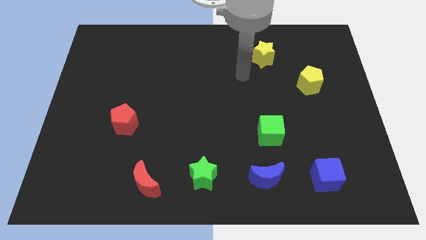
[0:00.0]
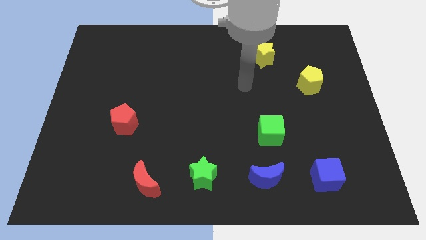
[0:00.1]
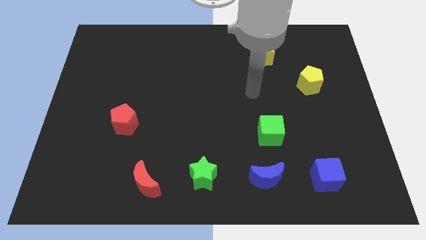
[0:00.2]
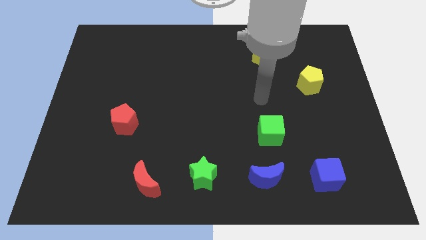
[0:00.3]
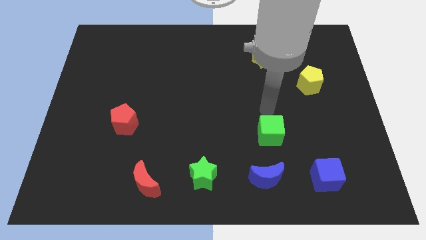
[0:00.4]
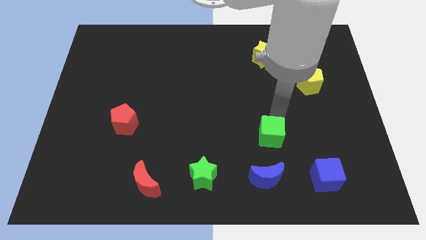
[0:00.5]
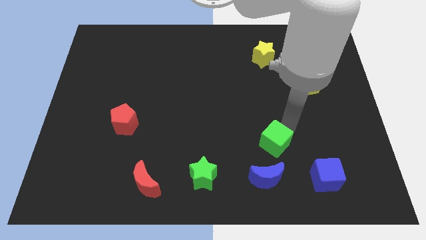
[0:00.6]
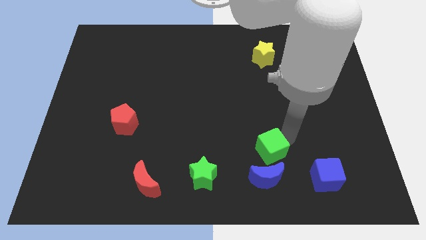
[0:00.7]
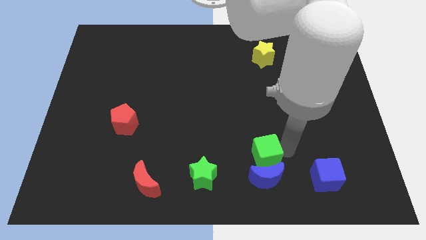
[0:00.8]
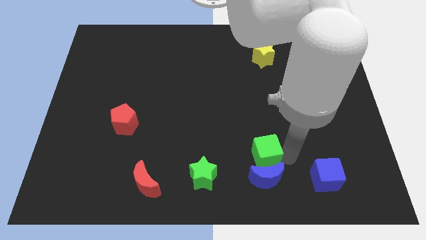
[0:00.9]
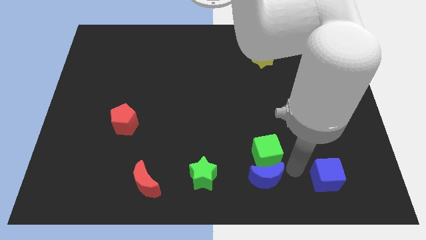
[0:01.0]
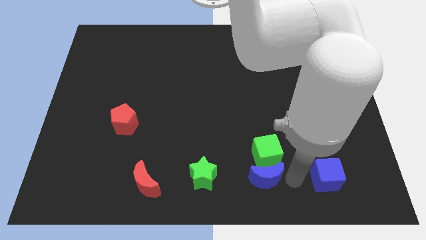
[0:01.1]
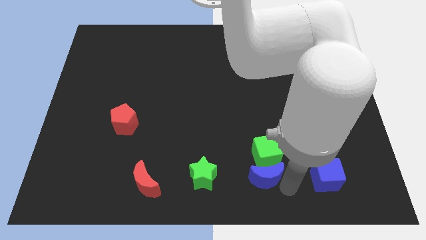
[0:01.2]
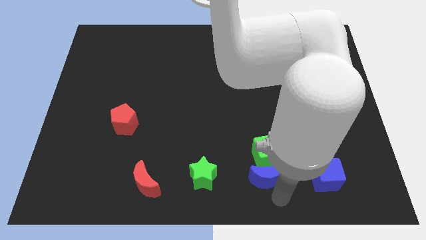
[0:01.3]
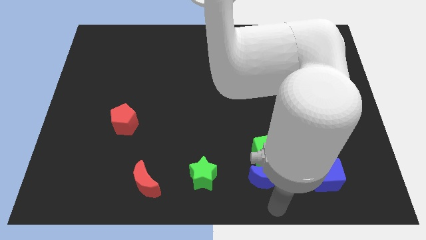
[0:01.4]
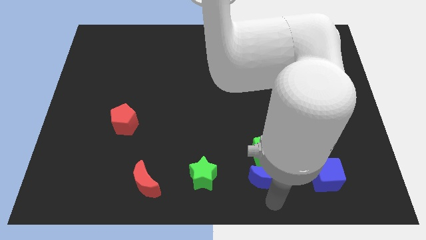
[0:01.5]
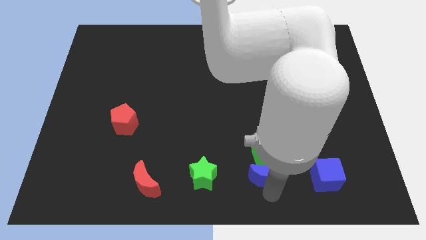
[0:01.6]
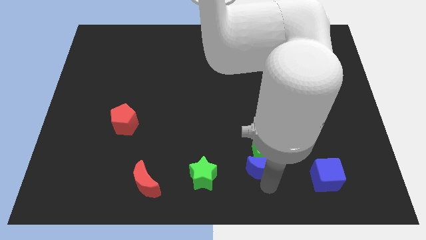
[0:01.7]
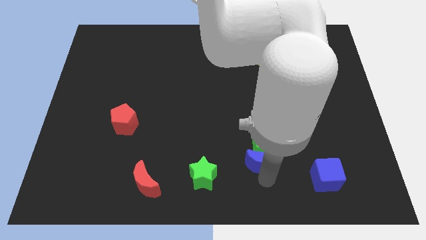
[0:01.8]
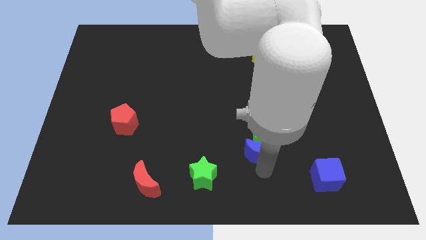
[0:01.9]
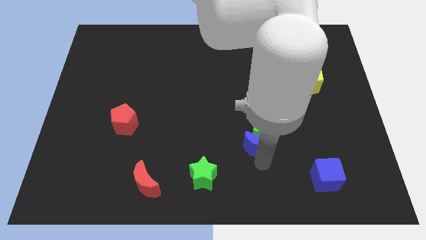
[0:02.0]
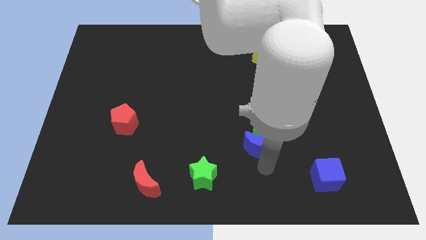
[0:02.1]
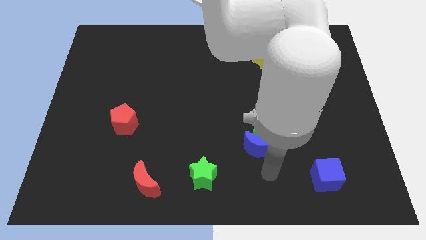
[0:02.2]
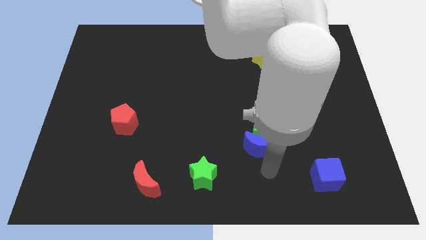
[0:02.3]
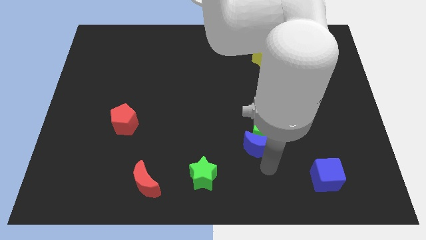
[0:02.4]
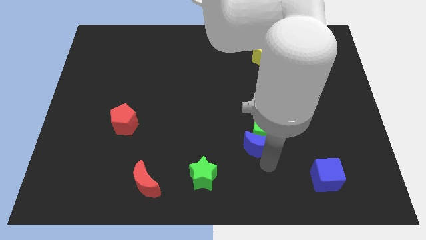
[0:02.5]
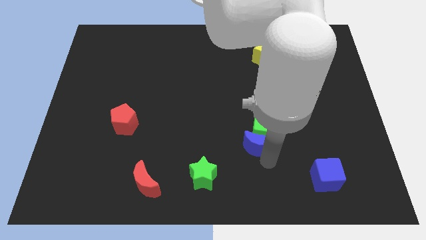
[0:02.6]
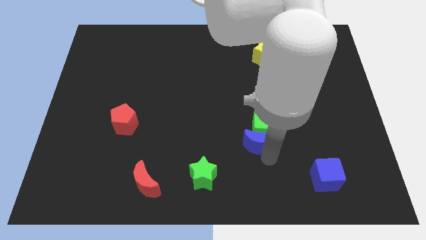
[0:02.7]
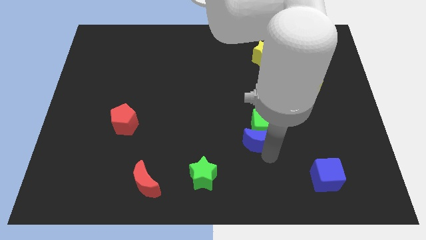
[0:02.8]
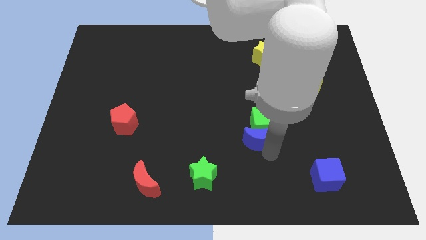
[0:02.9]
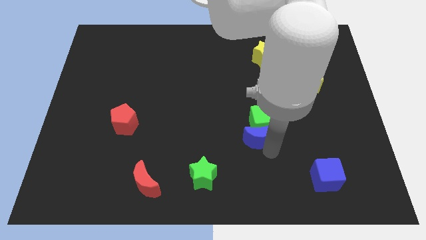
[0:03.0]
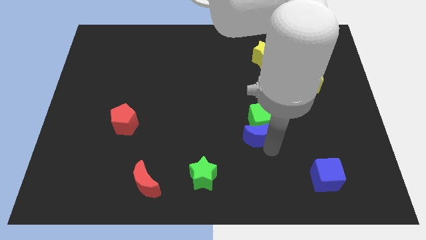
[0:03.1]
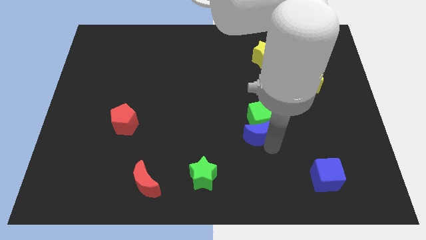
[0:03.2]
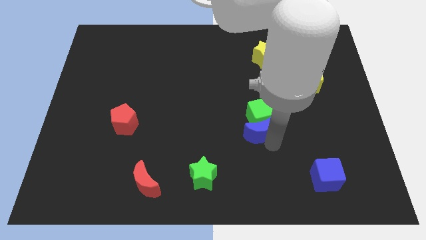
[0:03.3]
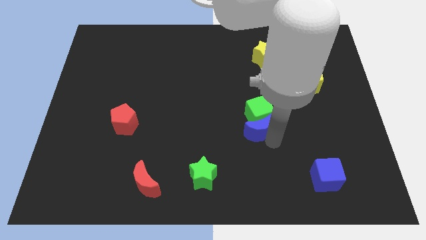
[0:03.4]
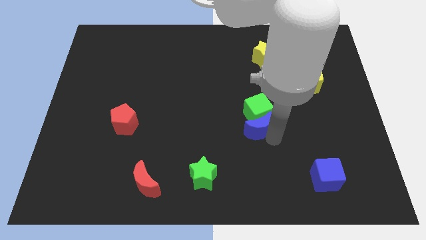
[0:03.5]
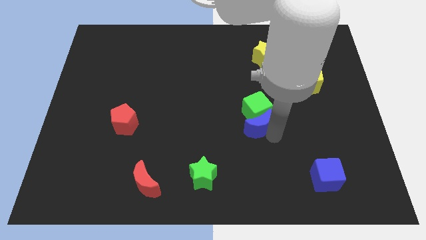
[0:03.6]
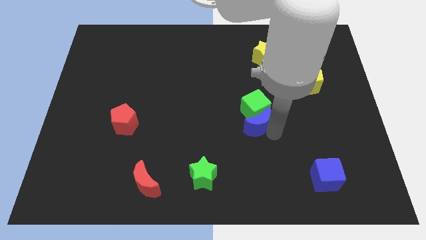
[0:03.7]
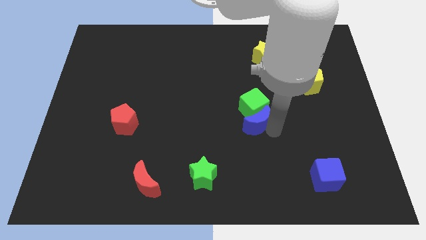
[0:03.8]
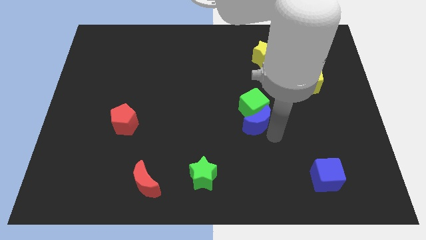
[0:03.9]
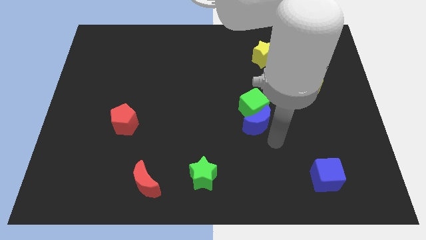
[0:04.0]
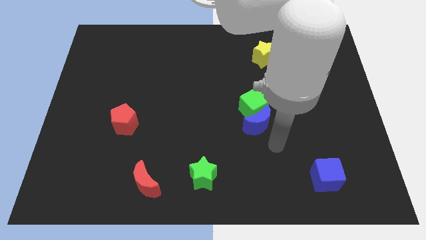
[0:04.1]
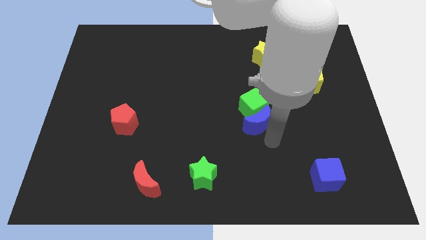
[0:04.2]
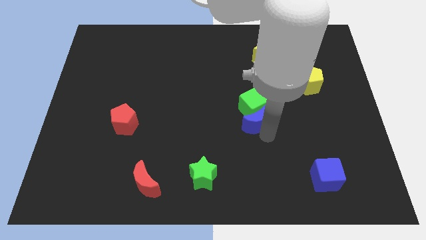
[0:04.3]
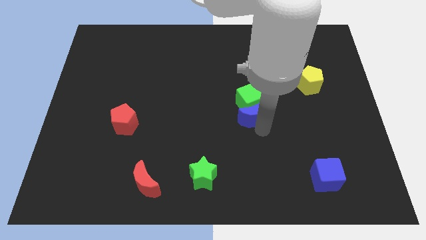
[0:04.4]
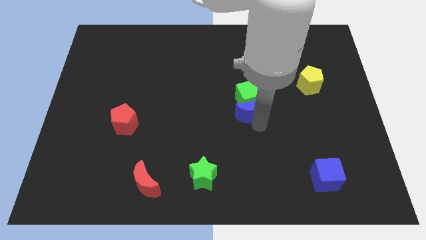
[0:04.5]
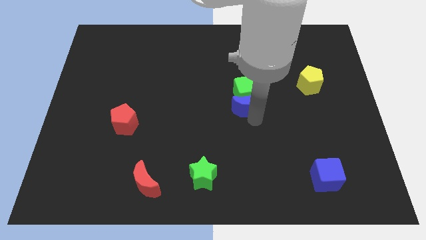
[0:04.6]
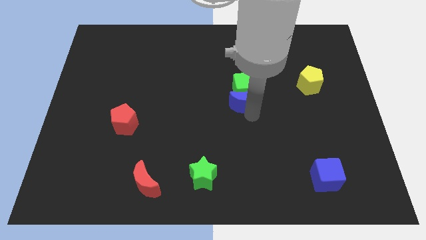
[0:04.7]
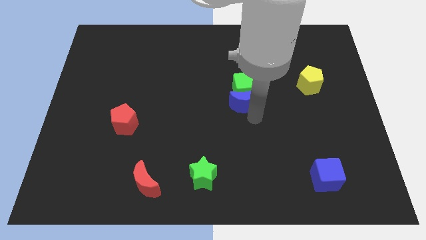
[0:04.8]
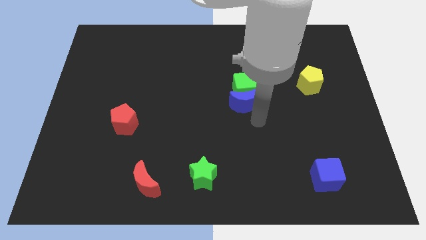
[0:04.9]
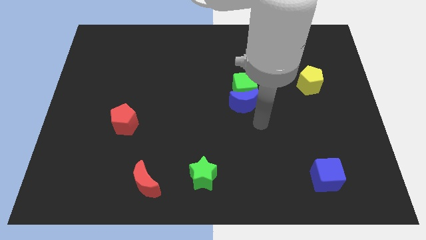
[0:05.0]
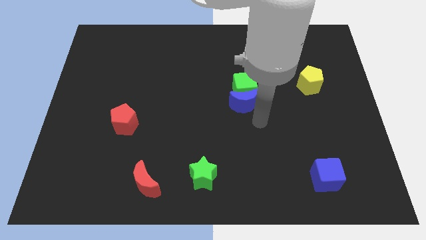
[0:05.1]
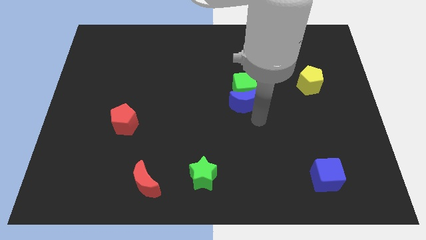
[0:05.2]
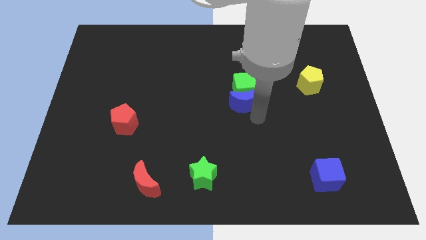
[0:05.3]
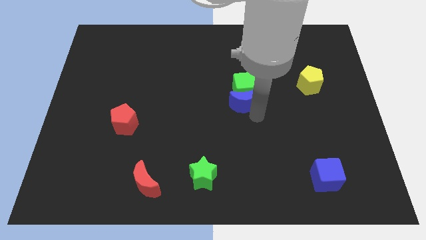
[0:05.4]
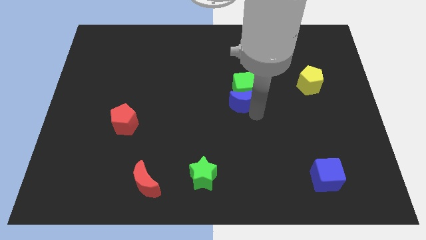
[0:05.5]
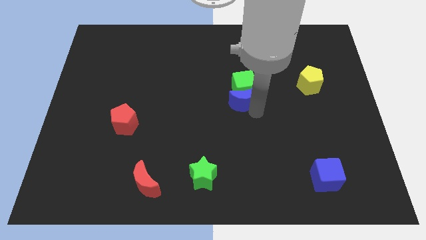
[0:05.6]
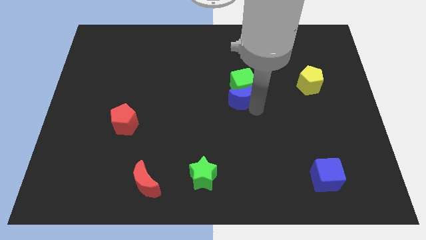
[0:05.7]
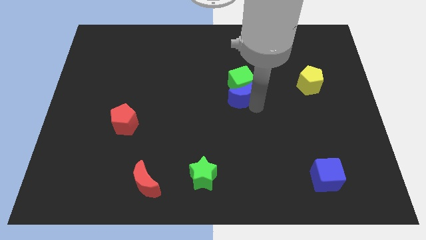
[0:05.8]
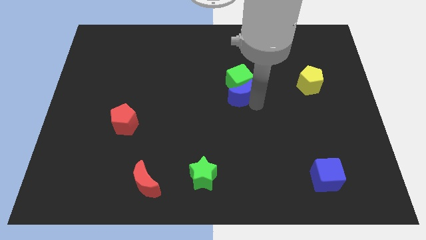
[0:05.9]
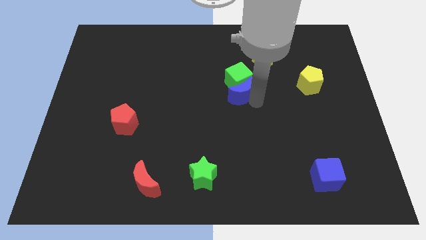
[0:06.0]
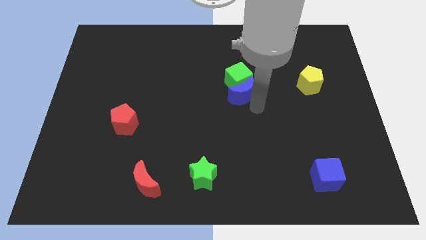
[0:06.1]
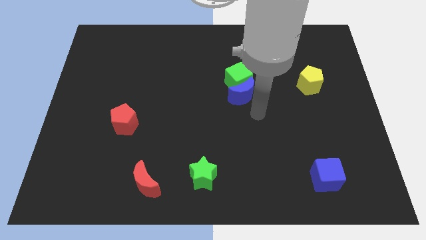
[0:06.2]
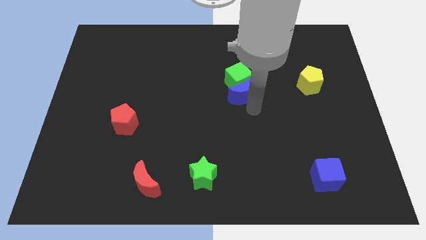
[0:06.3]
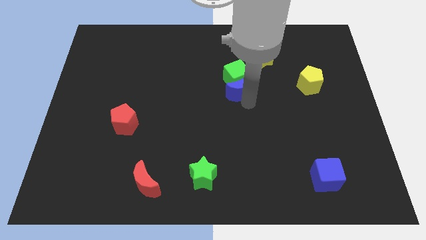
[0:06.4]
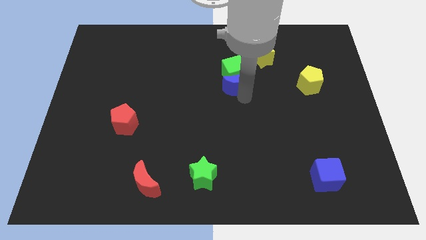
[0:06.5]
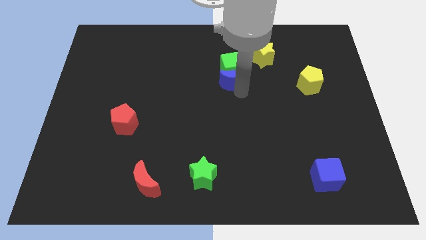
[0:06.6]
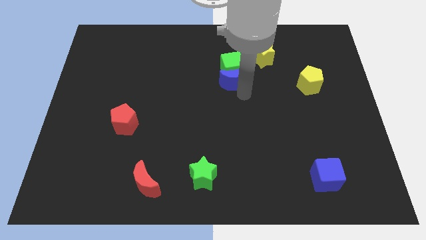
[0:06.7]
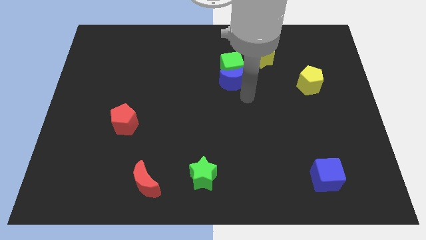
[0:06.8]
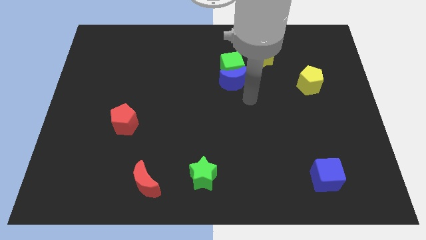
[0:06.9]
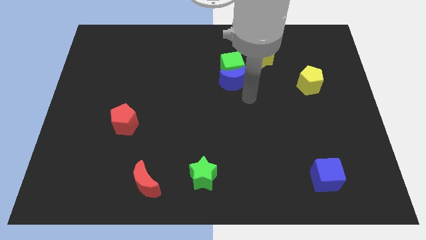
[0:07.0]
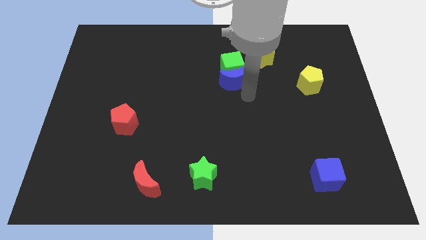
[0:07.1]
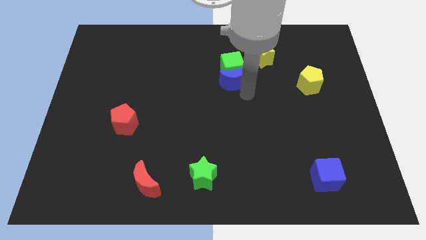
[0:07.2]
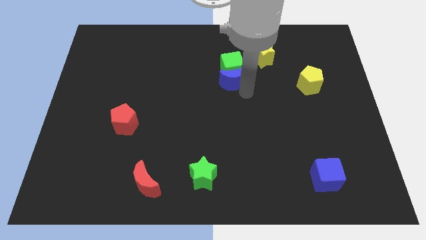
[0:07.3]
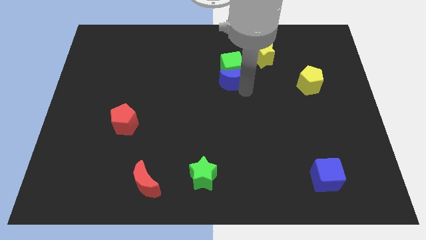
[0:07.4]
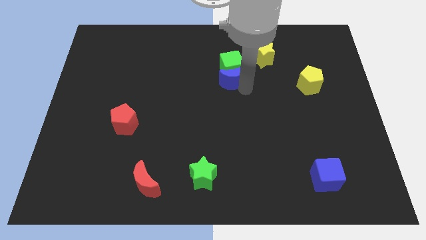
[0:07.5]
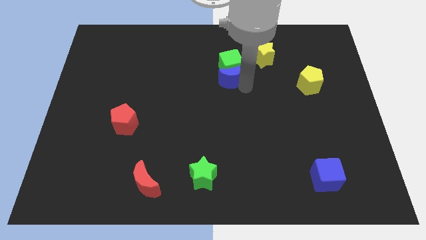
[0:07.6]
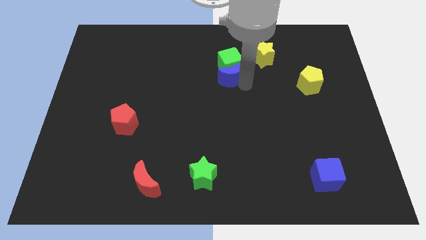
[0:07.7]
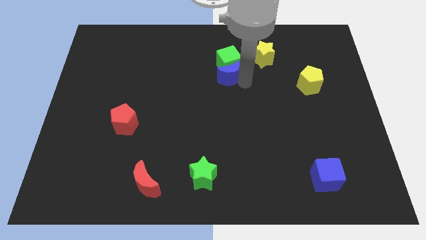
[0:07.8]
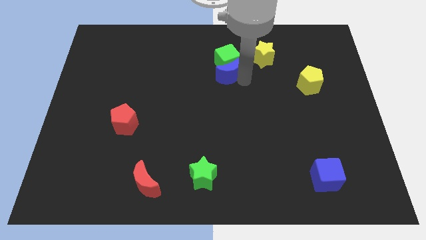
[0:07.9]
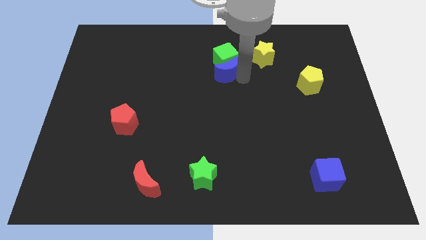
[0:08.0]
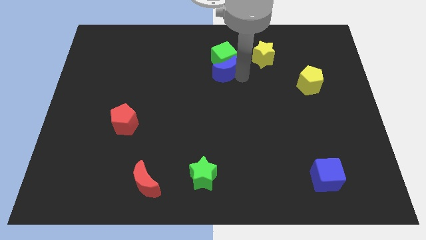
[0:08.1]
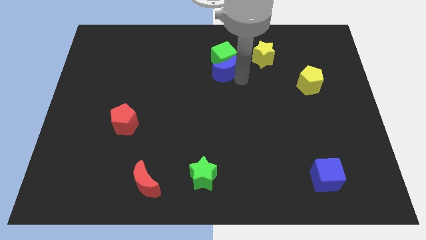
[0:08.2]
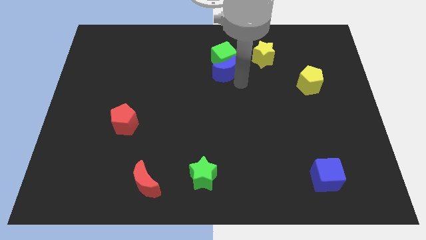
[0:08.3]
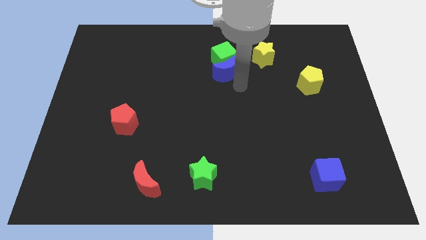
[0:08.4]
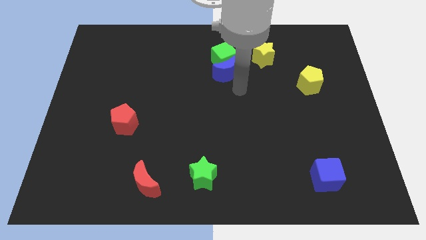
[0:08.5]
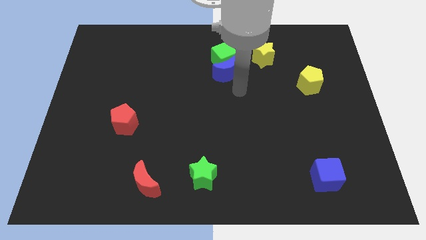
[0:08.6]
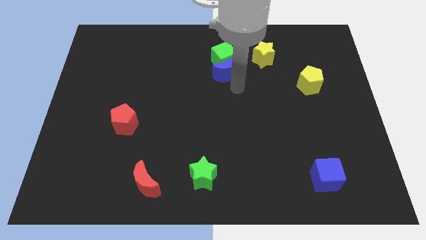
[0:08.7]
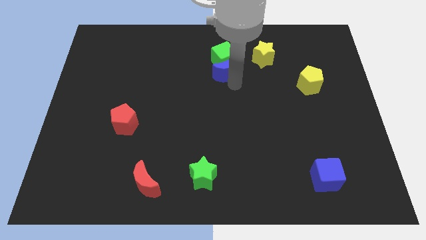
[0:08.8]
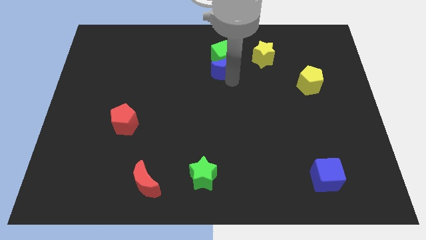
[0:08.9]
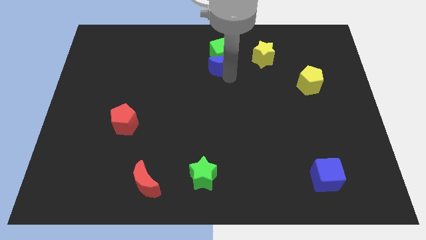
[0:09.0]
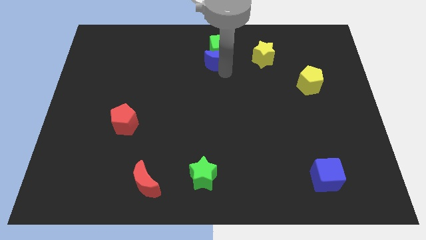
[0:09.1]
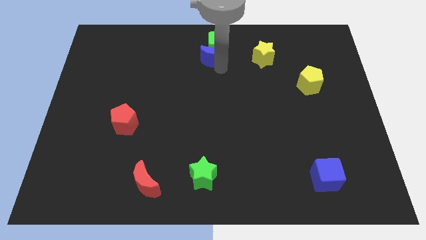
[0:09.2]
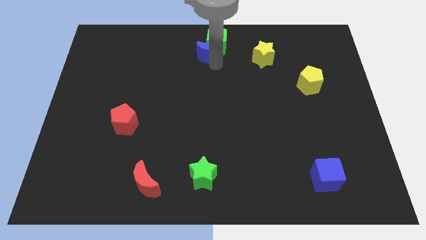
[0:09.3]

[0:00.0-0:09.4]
move the blue moon to the towards your base
